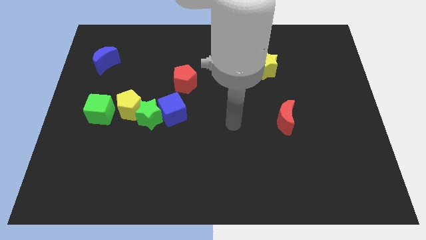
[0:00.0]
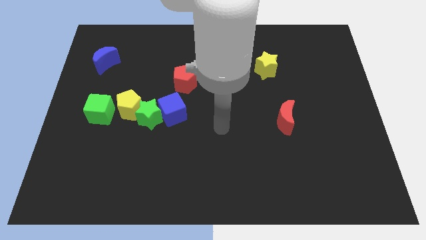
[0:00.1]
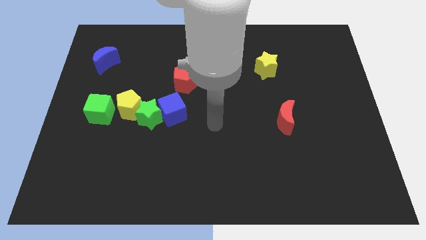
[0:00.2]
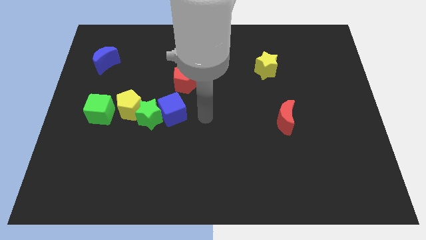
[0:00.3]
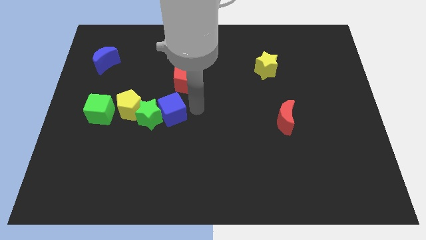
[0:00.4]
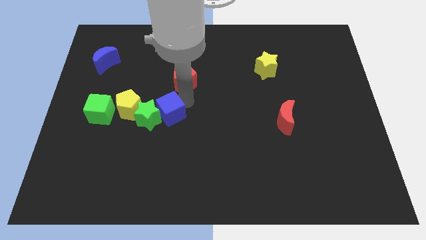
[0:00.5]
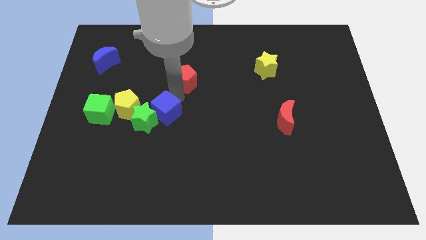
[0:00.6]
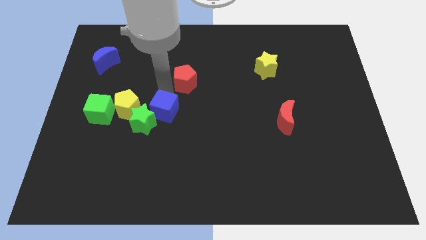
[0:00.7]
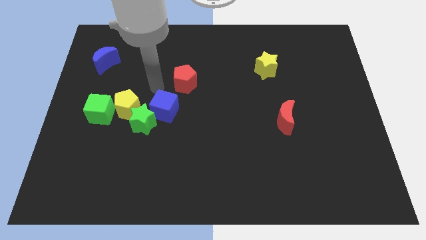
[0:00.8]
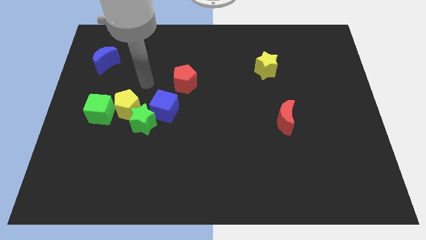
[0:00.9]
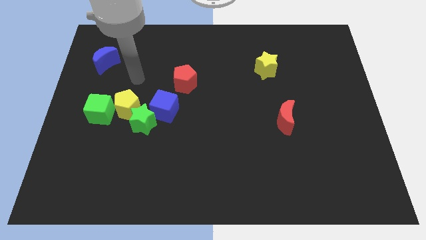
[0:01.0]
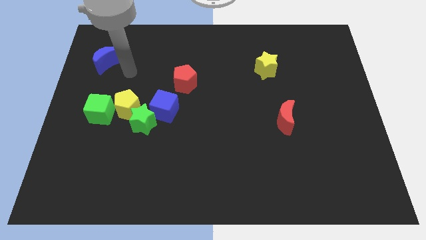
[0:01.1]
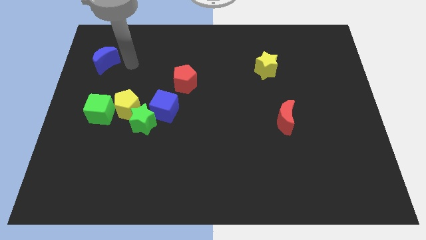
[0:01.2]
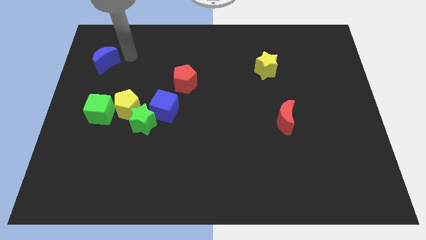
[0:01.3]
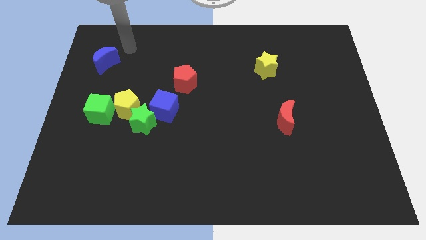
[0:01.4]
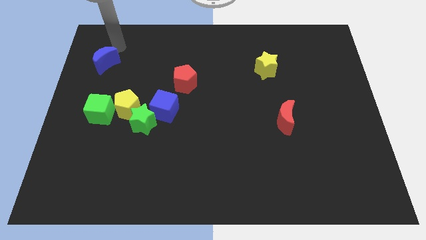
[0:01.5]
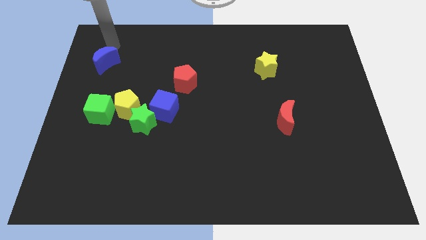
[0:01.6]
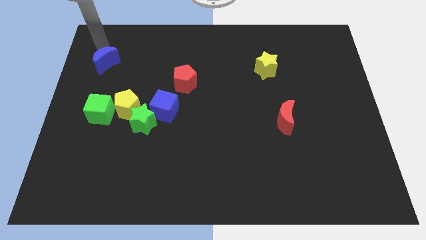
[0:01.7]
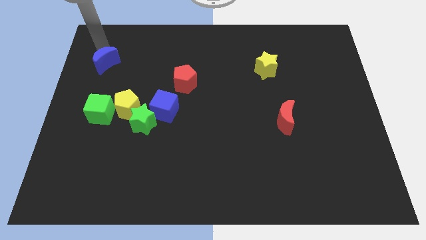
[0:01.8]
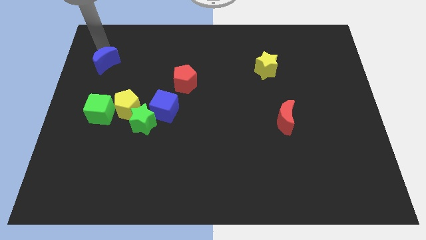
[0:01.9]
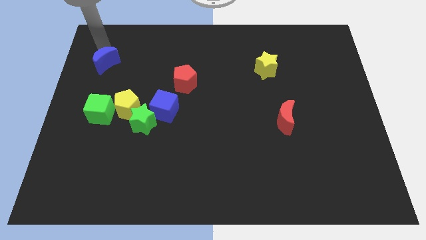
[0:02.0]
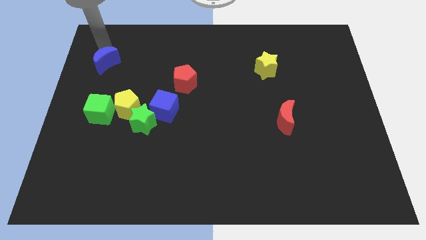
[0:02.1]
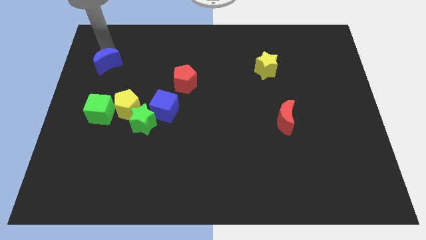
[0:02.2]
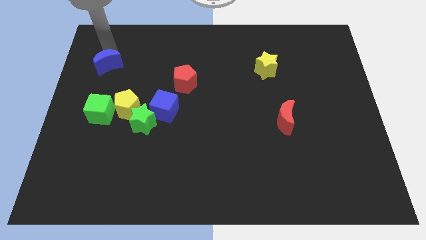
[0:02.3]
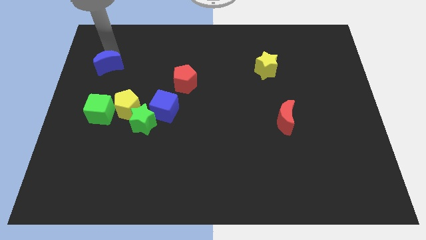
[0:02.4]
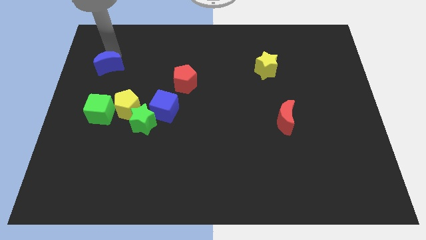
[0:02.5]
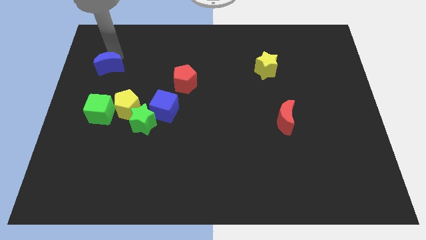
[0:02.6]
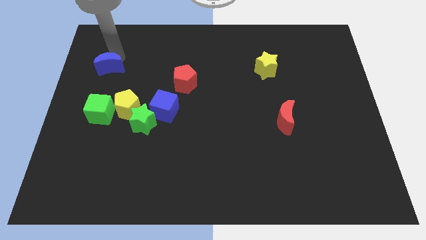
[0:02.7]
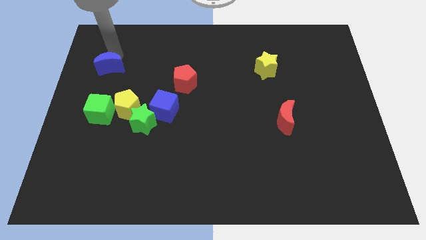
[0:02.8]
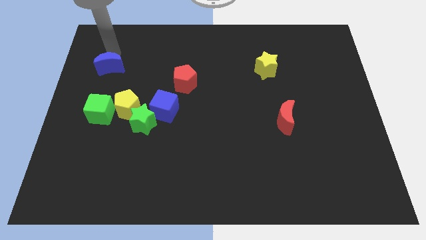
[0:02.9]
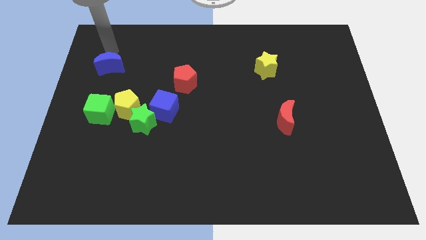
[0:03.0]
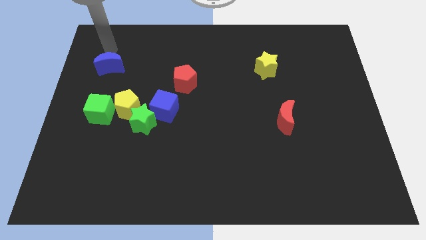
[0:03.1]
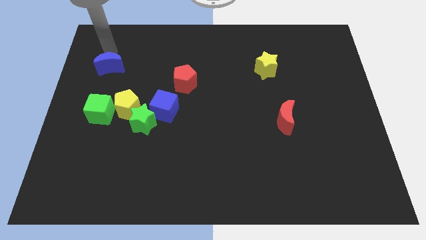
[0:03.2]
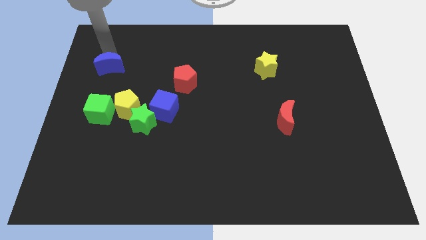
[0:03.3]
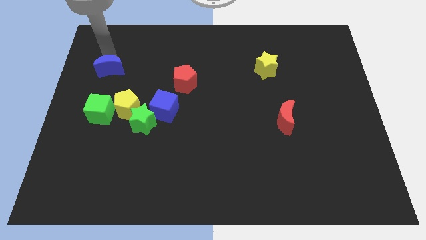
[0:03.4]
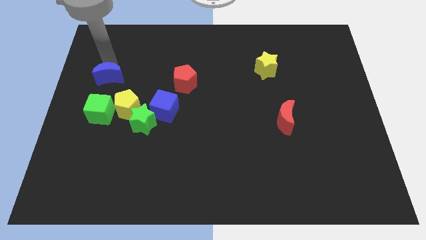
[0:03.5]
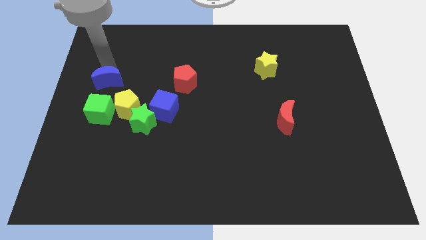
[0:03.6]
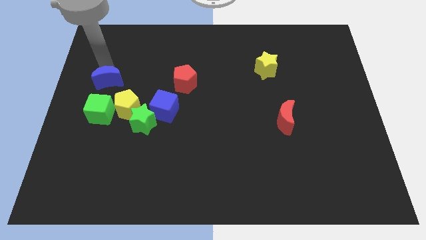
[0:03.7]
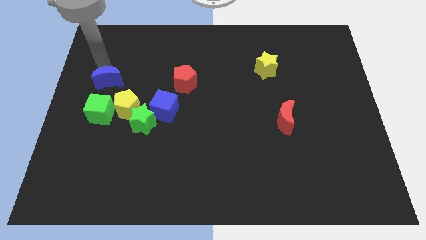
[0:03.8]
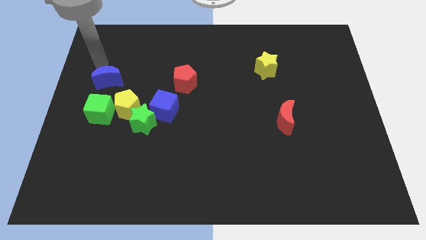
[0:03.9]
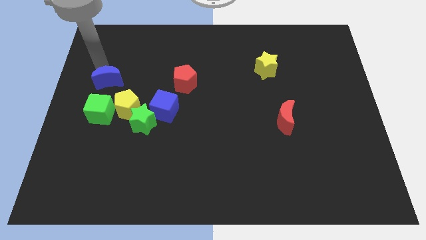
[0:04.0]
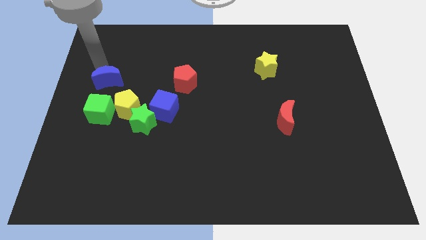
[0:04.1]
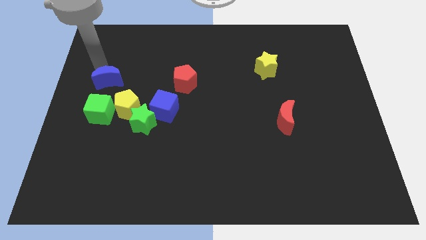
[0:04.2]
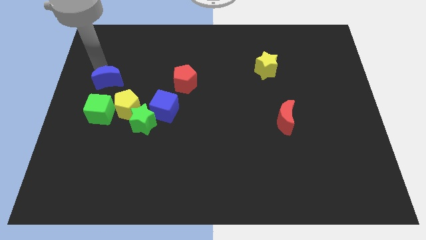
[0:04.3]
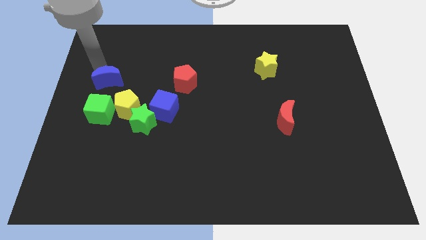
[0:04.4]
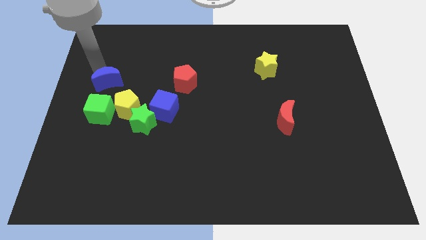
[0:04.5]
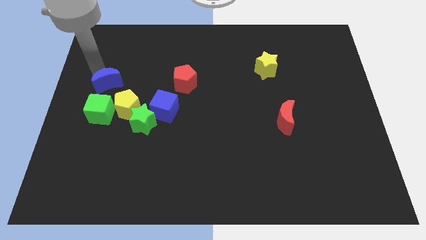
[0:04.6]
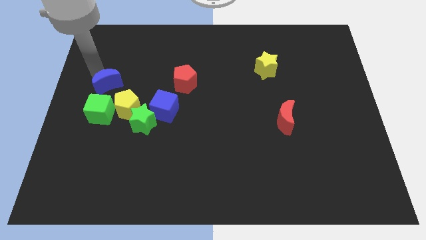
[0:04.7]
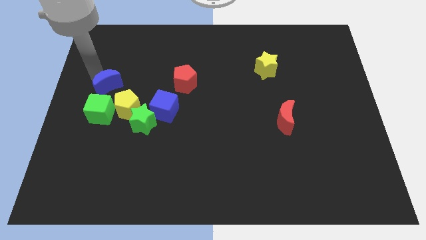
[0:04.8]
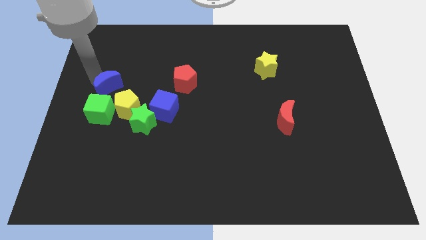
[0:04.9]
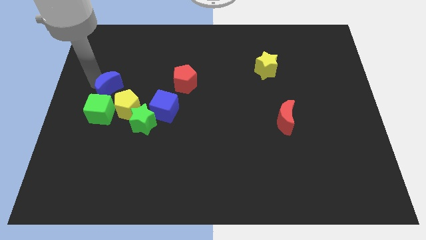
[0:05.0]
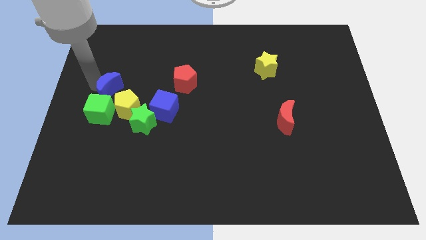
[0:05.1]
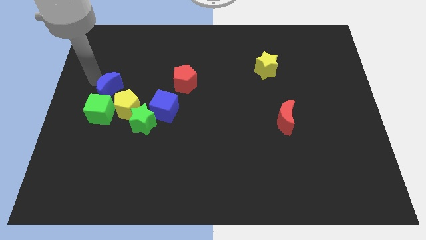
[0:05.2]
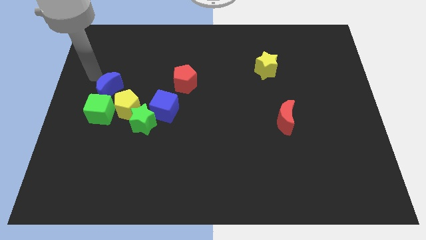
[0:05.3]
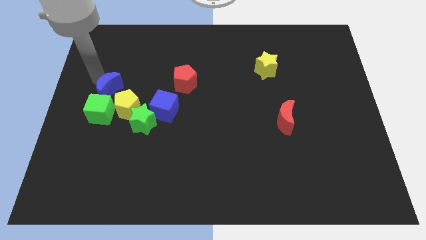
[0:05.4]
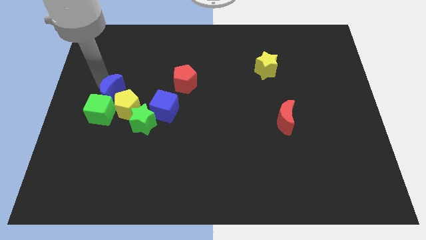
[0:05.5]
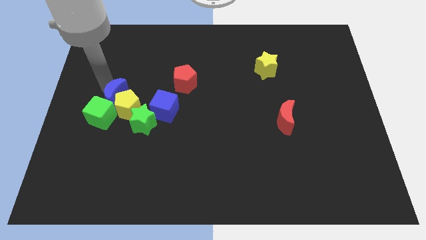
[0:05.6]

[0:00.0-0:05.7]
put the blue moon to the yellow pentagon

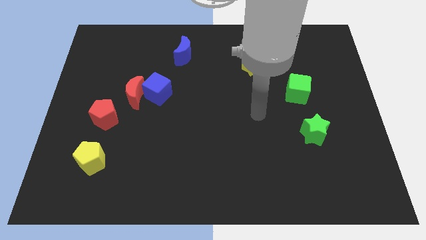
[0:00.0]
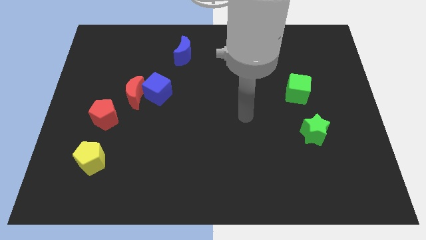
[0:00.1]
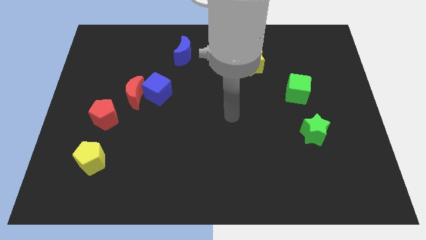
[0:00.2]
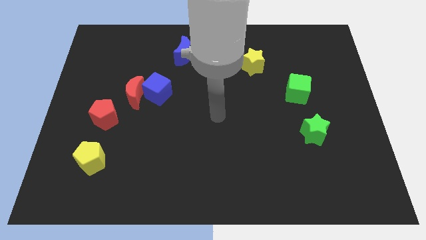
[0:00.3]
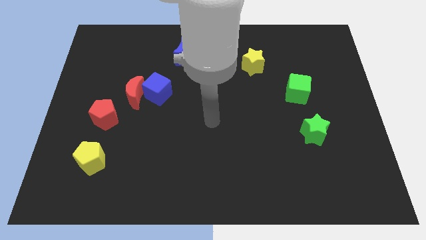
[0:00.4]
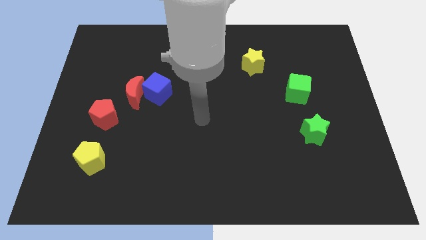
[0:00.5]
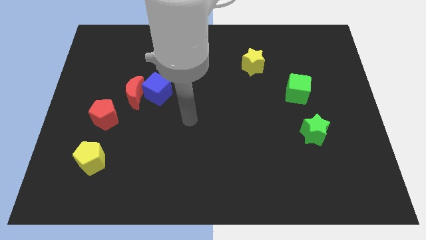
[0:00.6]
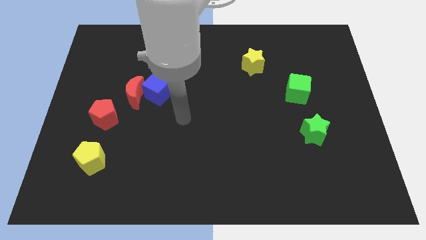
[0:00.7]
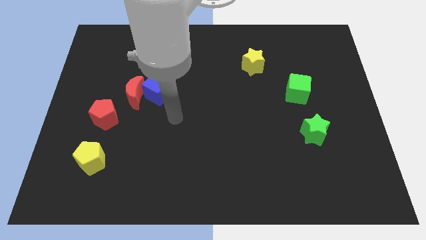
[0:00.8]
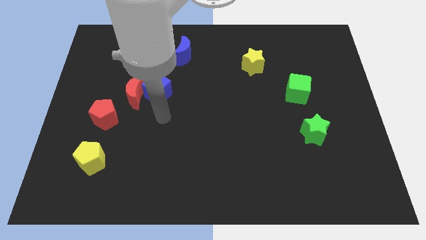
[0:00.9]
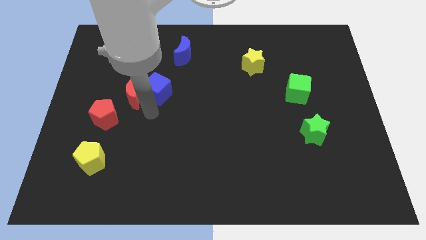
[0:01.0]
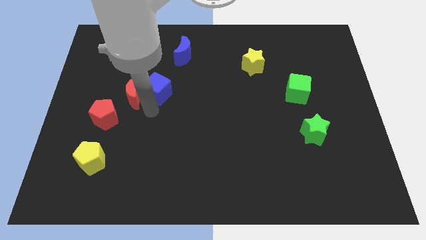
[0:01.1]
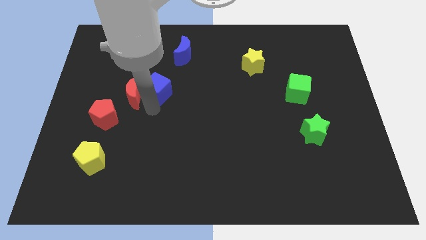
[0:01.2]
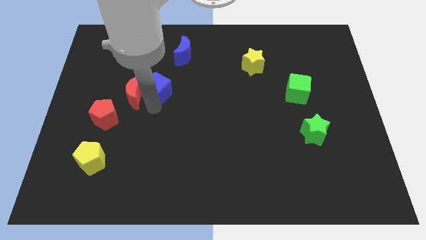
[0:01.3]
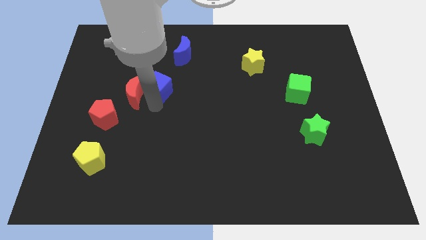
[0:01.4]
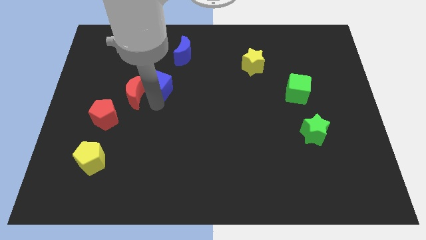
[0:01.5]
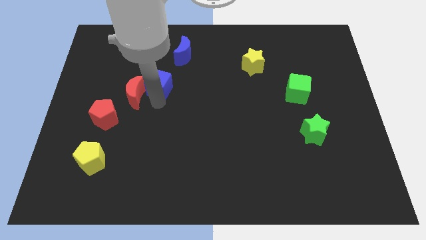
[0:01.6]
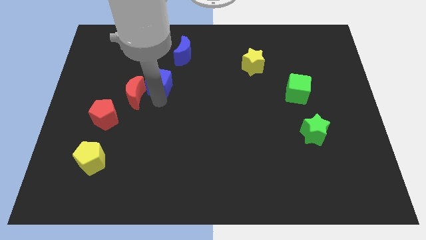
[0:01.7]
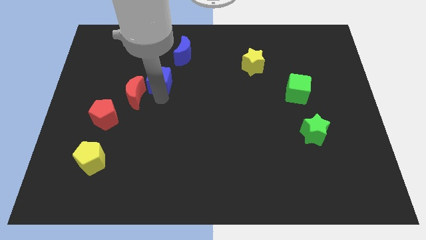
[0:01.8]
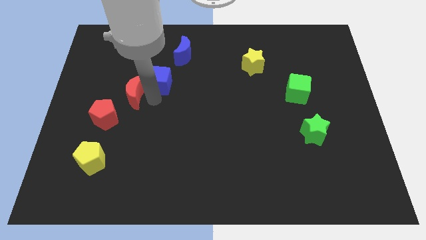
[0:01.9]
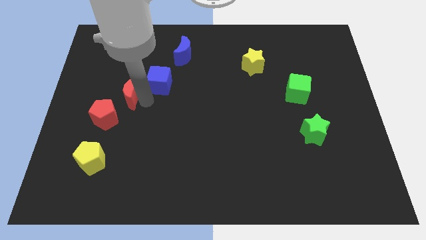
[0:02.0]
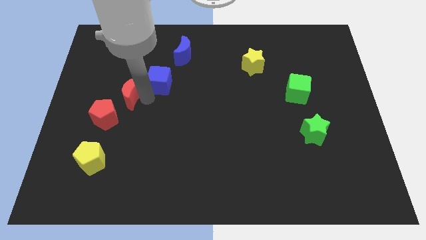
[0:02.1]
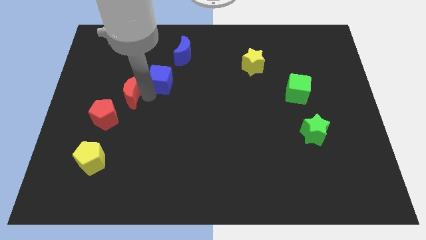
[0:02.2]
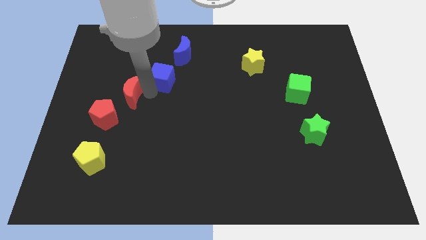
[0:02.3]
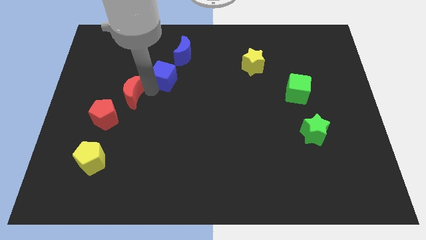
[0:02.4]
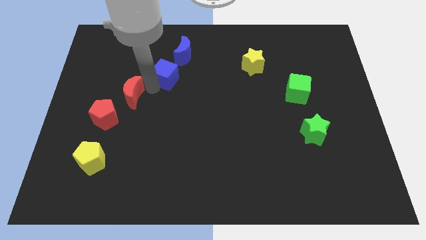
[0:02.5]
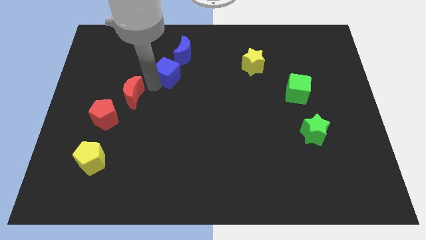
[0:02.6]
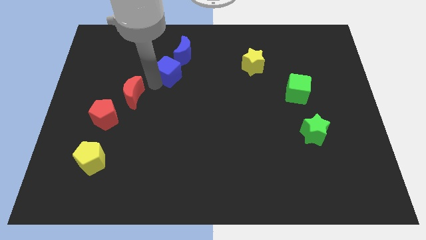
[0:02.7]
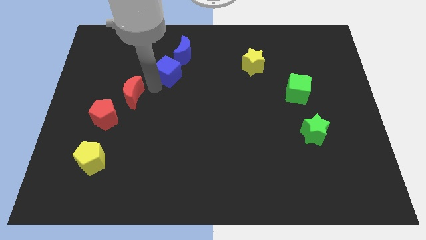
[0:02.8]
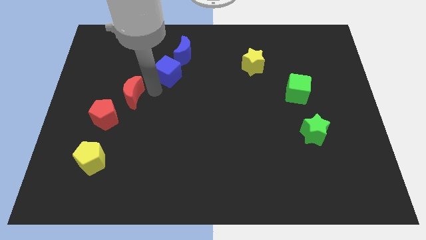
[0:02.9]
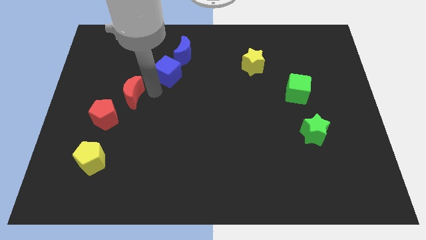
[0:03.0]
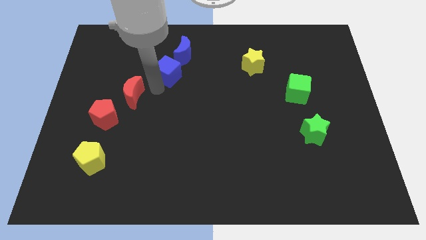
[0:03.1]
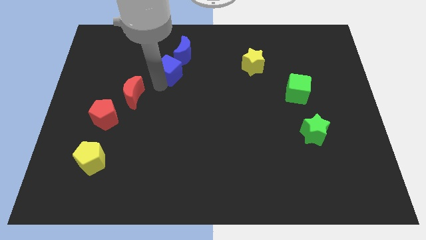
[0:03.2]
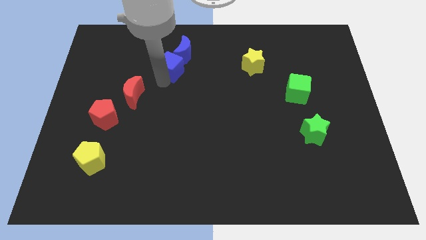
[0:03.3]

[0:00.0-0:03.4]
slide the blue cube next to the blue moon
